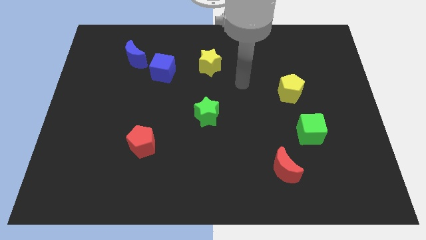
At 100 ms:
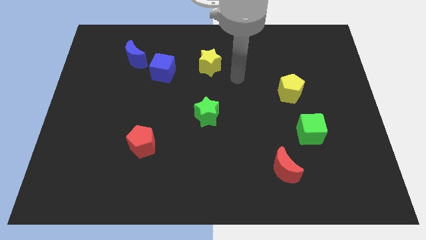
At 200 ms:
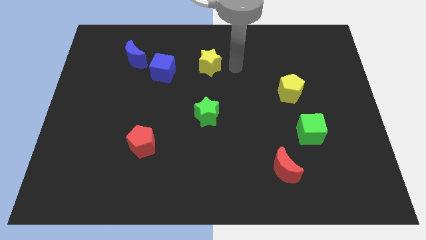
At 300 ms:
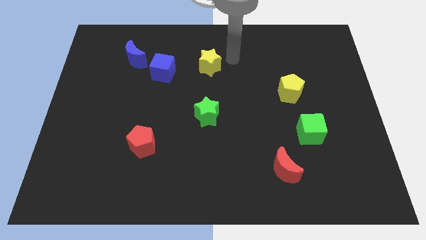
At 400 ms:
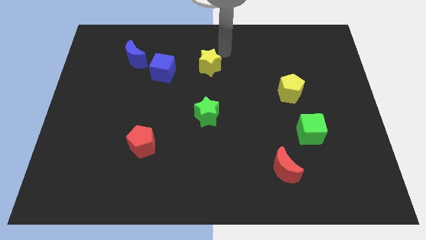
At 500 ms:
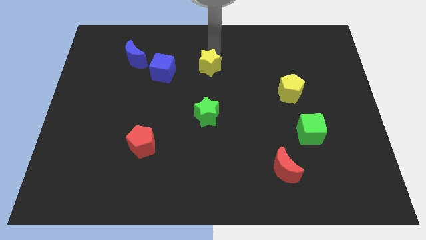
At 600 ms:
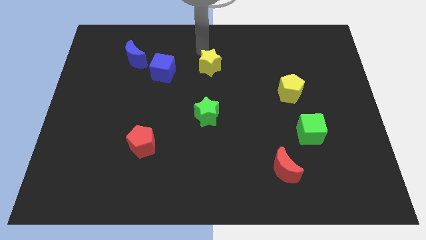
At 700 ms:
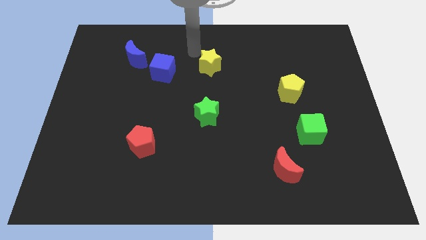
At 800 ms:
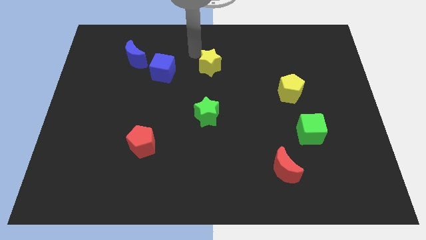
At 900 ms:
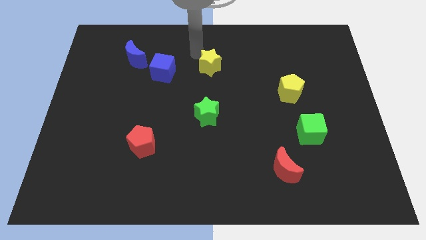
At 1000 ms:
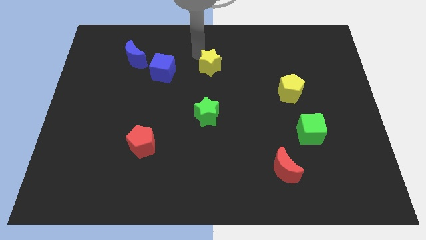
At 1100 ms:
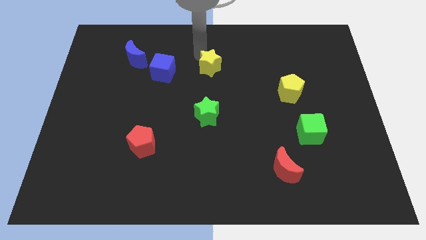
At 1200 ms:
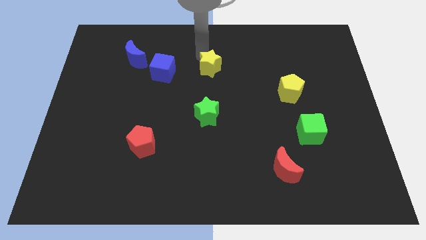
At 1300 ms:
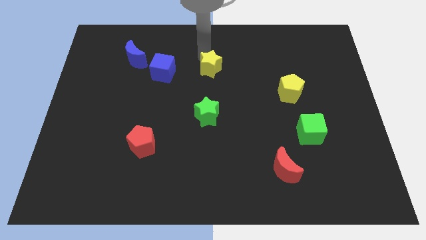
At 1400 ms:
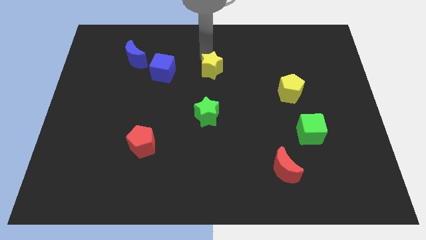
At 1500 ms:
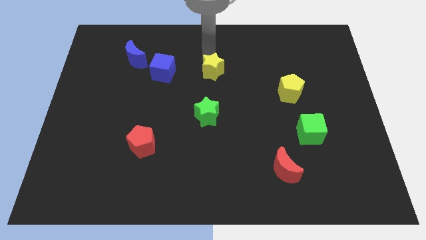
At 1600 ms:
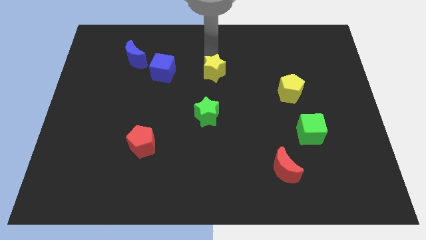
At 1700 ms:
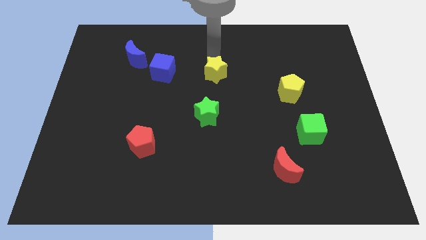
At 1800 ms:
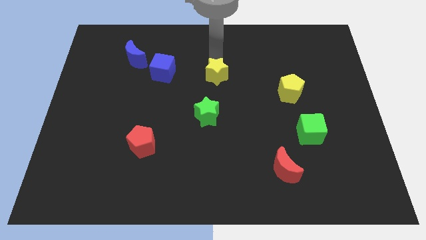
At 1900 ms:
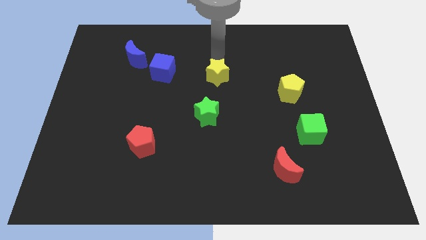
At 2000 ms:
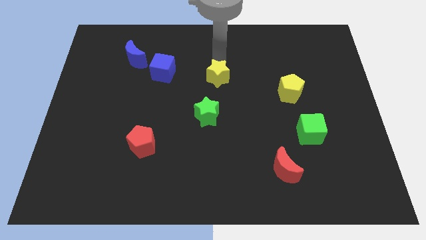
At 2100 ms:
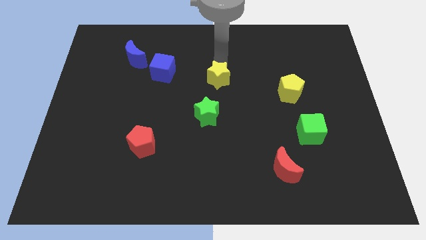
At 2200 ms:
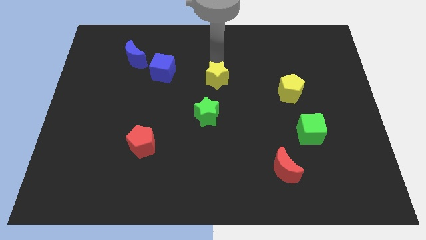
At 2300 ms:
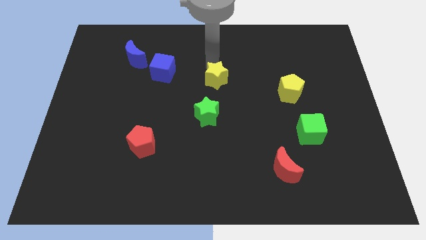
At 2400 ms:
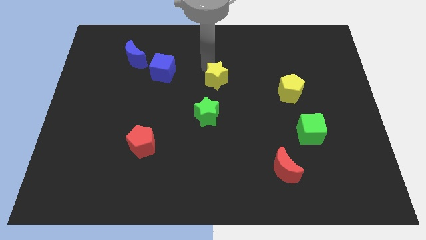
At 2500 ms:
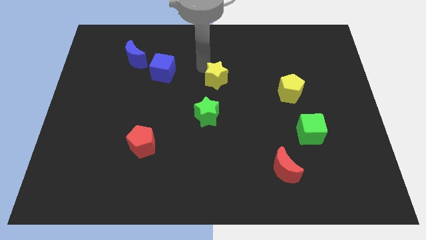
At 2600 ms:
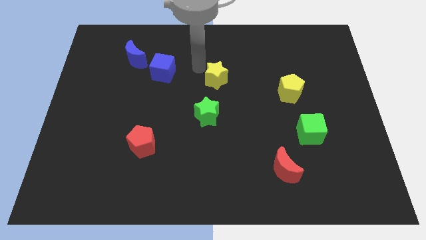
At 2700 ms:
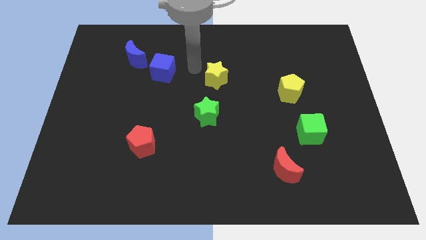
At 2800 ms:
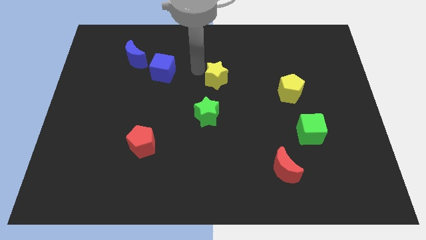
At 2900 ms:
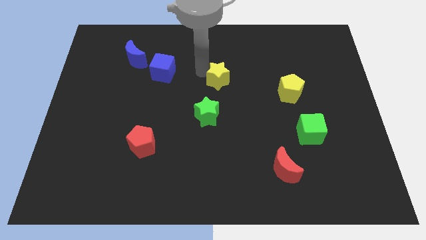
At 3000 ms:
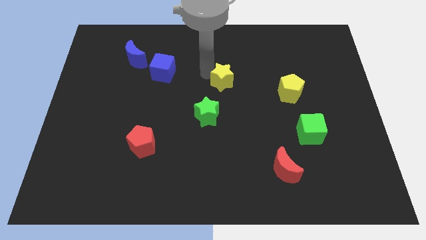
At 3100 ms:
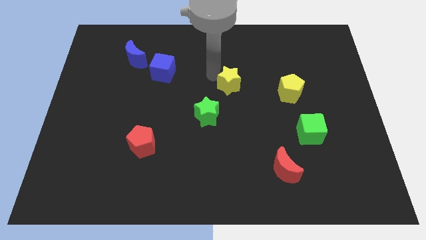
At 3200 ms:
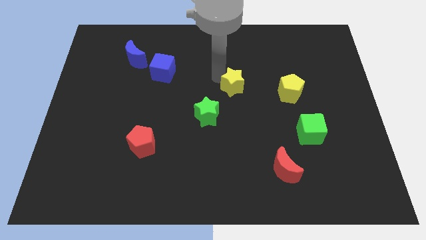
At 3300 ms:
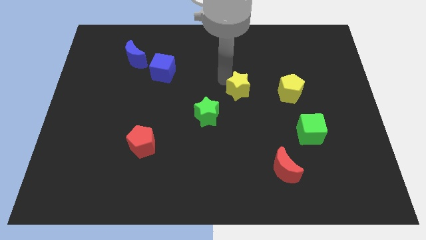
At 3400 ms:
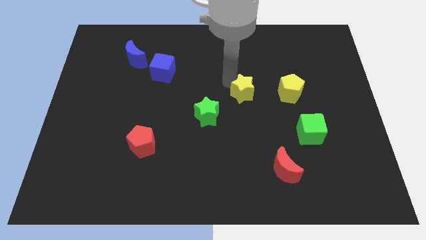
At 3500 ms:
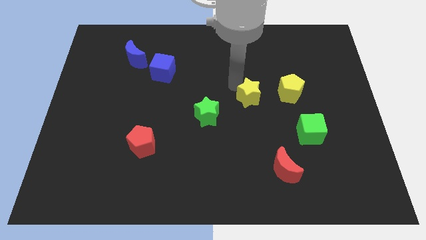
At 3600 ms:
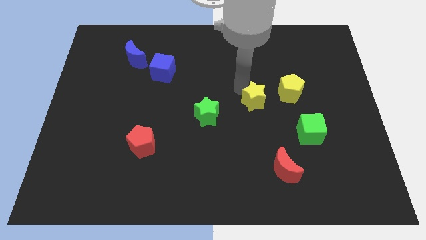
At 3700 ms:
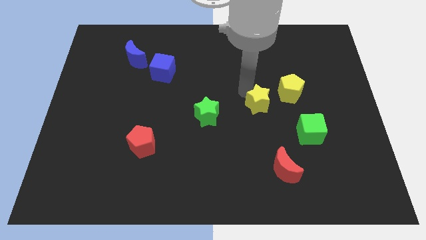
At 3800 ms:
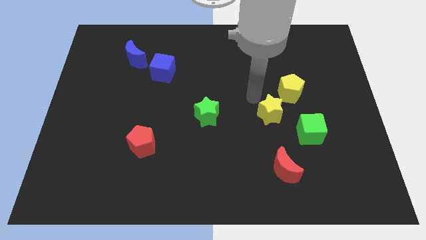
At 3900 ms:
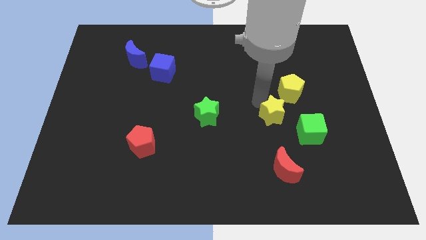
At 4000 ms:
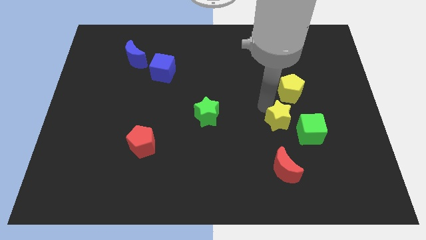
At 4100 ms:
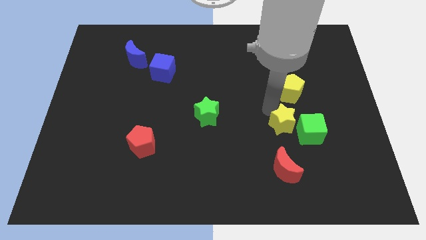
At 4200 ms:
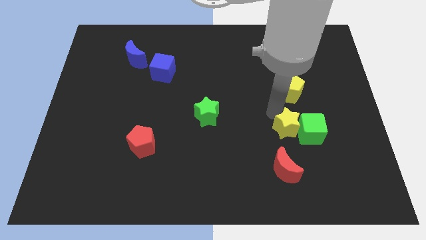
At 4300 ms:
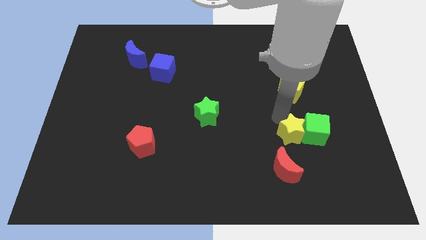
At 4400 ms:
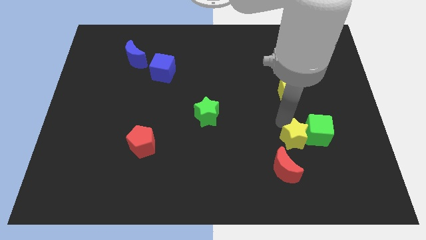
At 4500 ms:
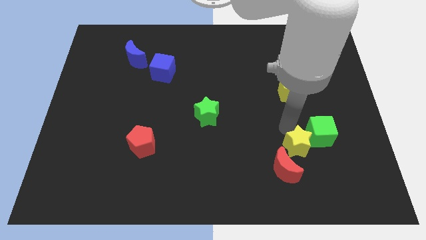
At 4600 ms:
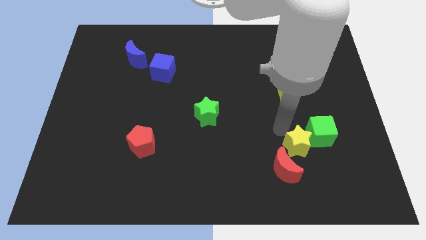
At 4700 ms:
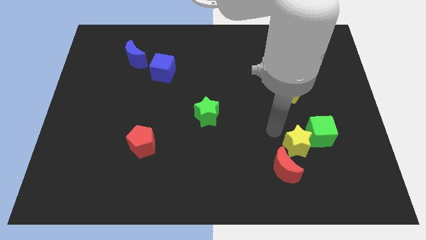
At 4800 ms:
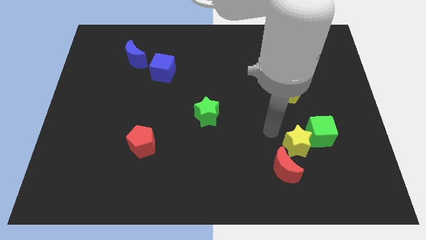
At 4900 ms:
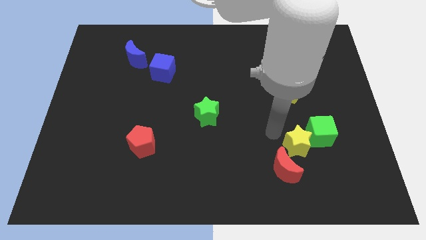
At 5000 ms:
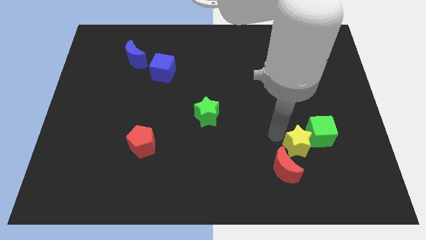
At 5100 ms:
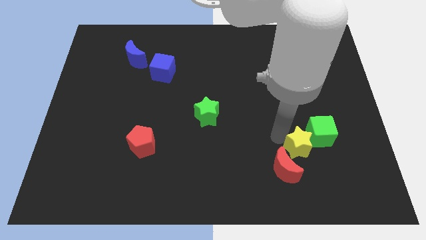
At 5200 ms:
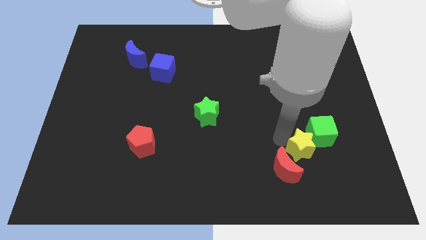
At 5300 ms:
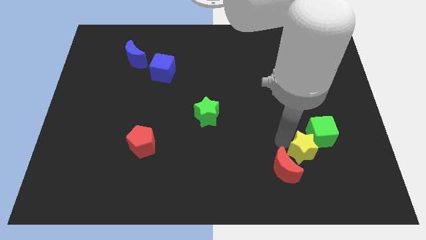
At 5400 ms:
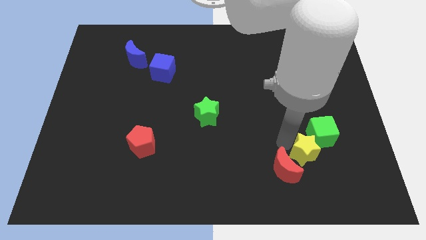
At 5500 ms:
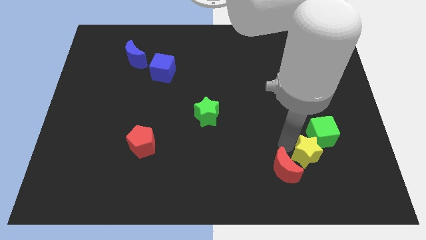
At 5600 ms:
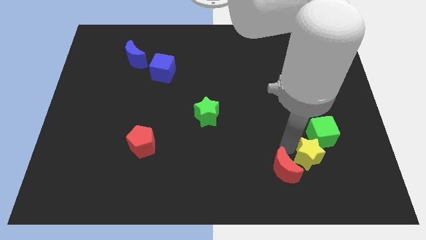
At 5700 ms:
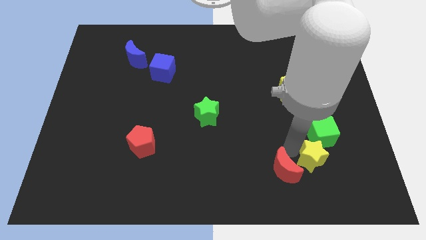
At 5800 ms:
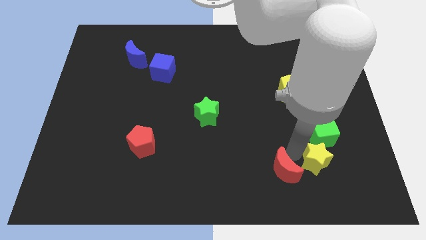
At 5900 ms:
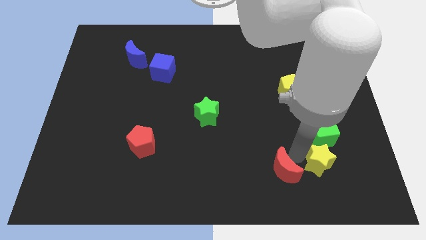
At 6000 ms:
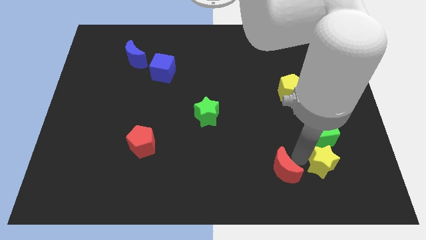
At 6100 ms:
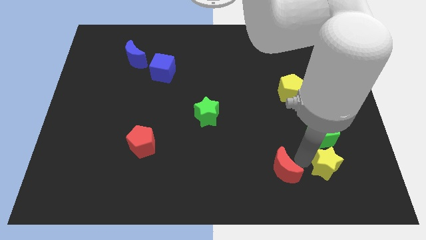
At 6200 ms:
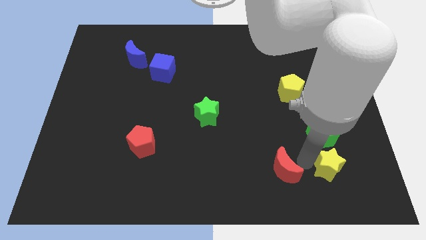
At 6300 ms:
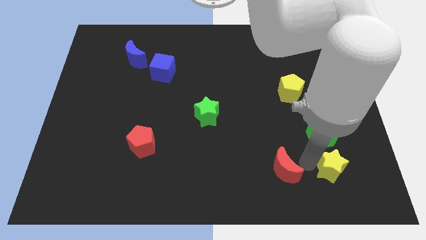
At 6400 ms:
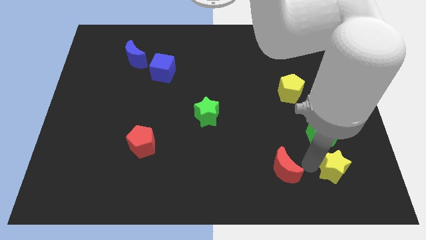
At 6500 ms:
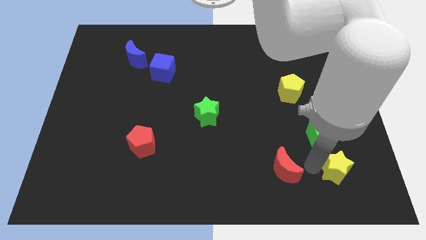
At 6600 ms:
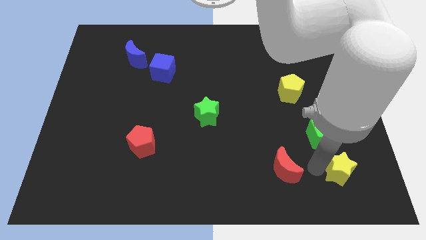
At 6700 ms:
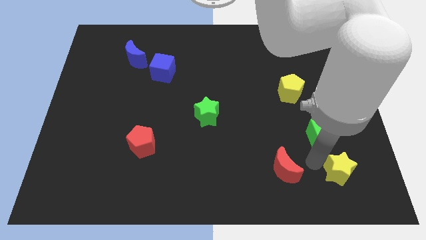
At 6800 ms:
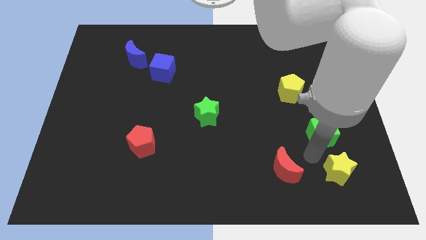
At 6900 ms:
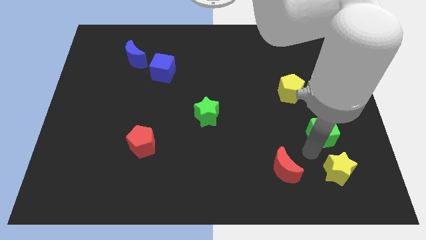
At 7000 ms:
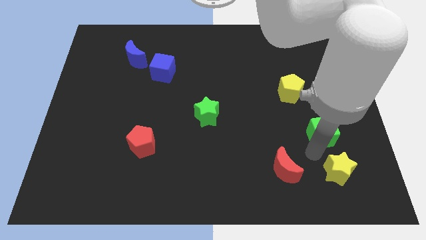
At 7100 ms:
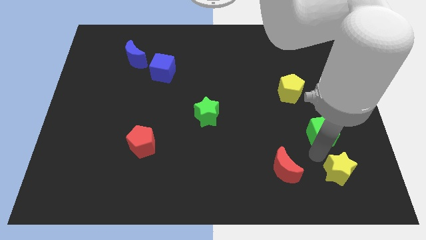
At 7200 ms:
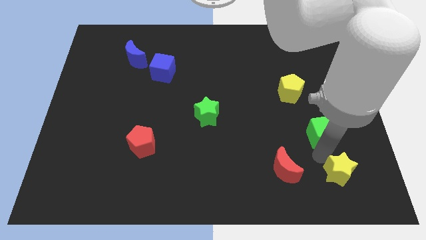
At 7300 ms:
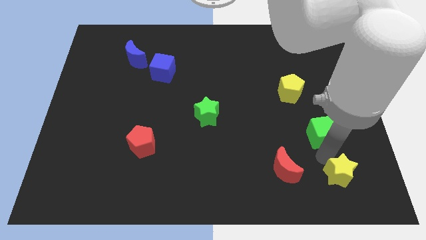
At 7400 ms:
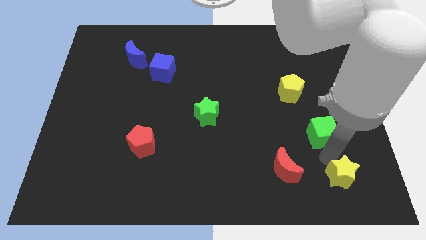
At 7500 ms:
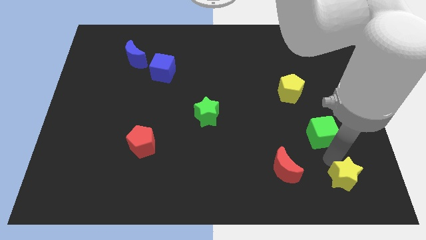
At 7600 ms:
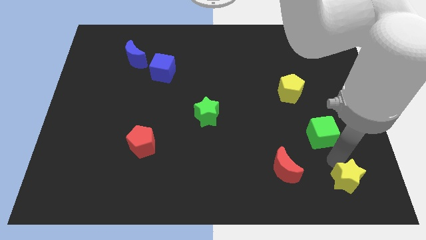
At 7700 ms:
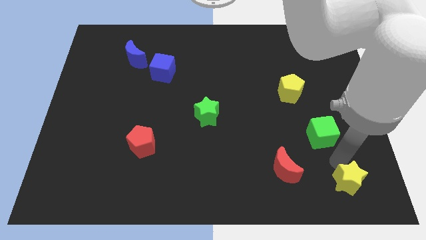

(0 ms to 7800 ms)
put the yellow star to the bottom right
